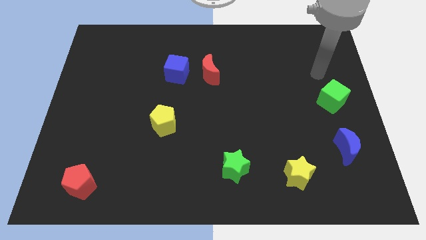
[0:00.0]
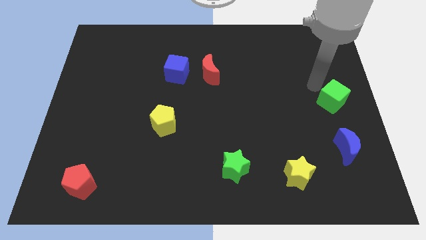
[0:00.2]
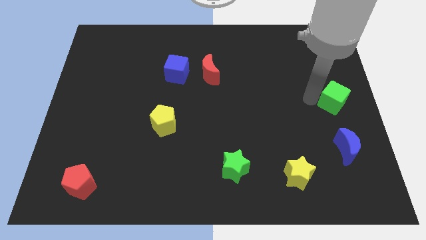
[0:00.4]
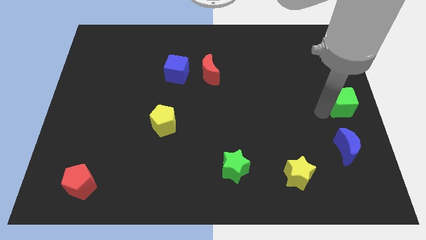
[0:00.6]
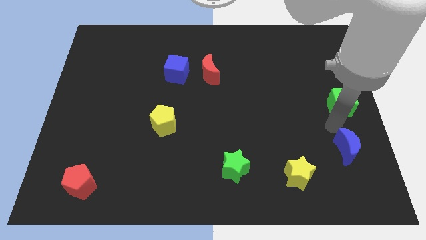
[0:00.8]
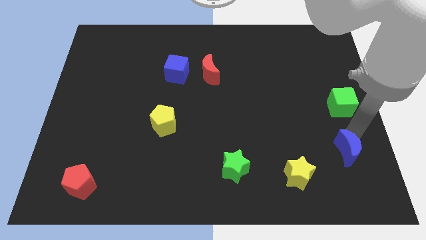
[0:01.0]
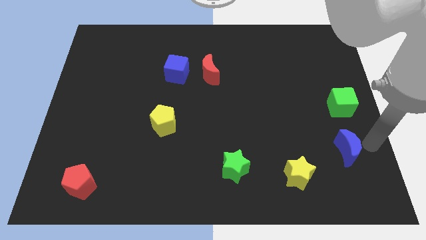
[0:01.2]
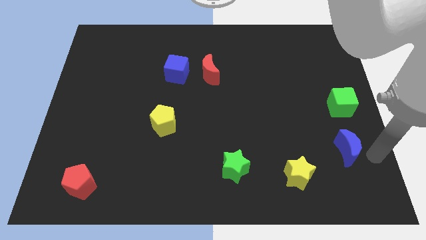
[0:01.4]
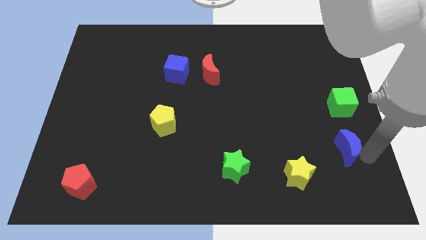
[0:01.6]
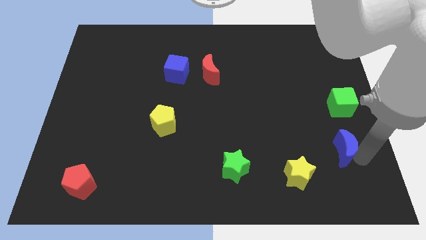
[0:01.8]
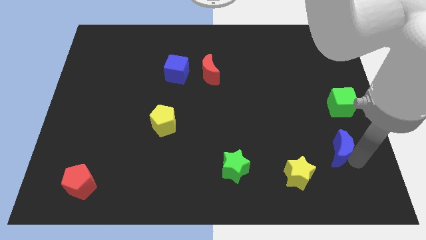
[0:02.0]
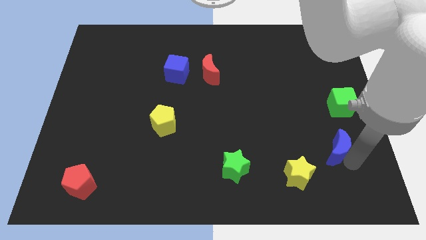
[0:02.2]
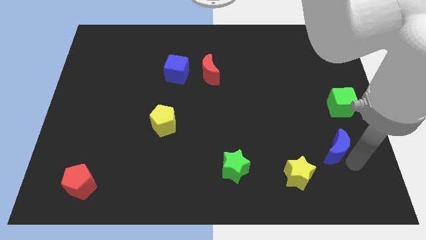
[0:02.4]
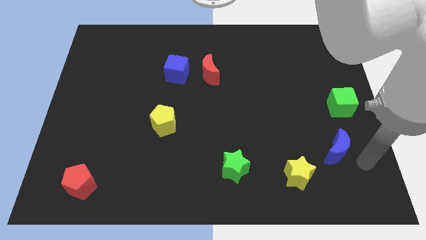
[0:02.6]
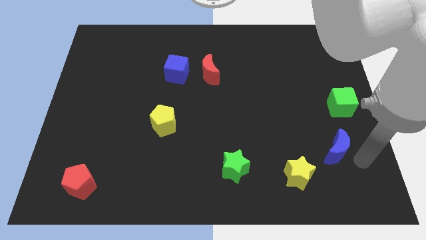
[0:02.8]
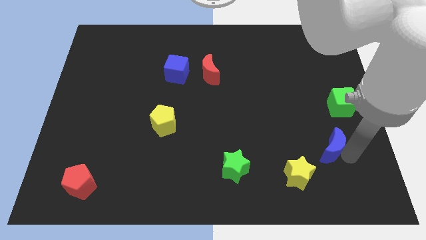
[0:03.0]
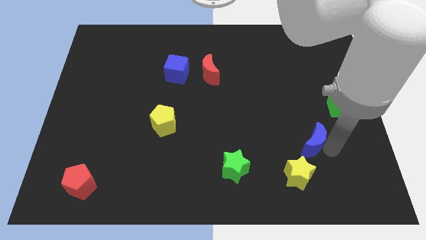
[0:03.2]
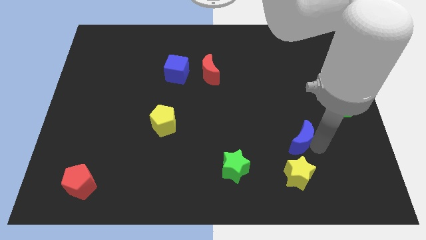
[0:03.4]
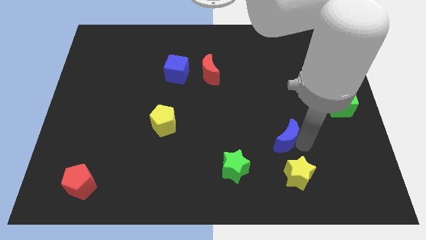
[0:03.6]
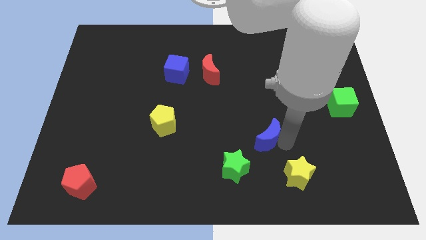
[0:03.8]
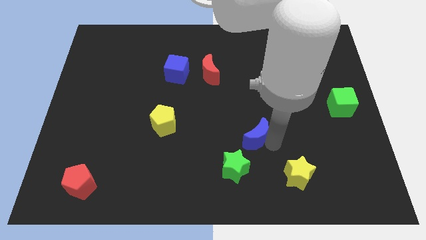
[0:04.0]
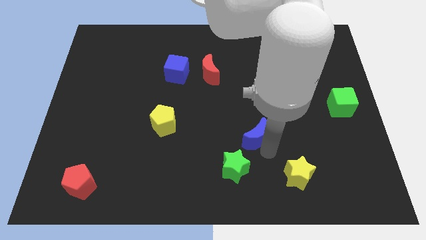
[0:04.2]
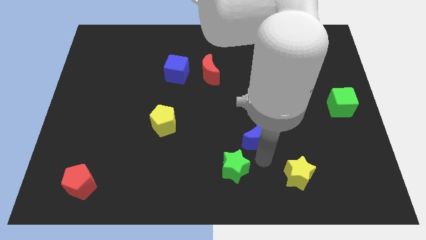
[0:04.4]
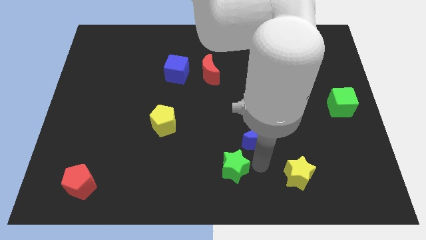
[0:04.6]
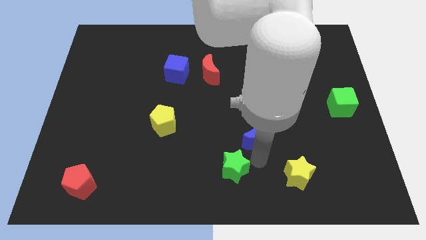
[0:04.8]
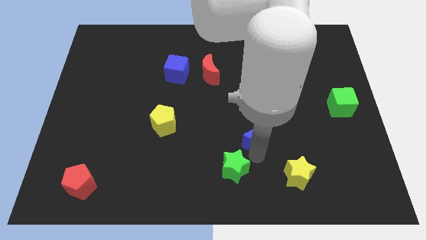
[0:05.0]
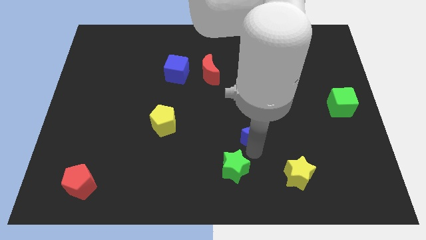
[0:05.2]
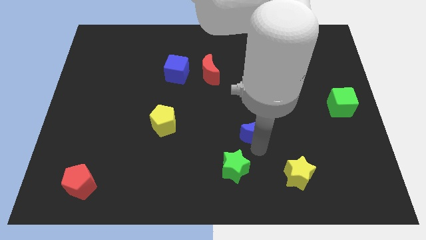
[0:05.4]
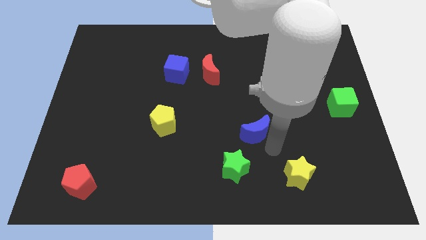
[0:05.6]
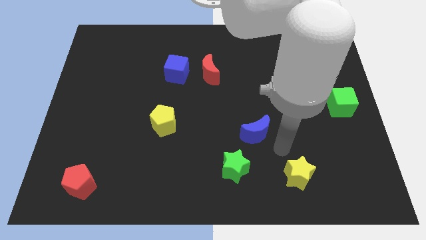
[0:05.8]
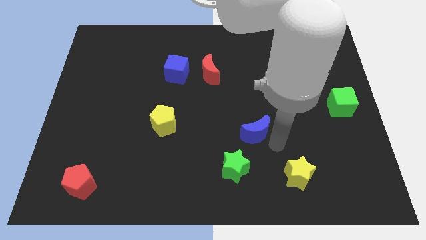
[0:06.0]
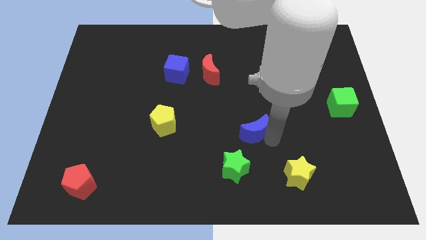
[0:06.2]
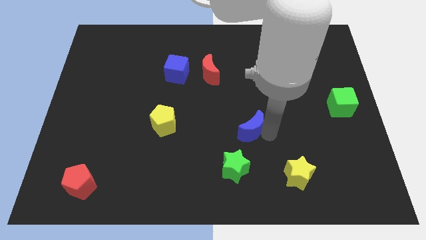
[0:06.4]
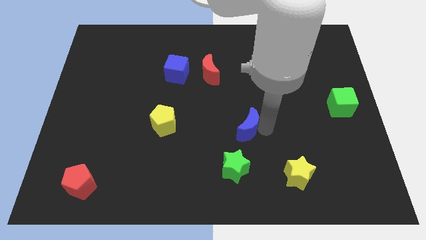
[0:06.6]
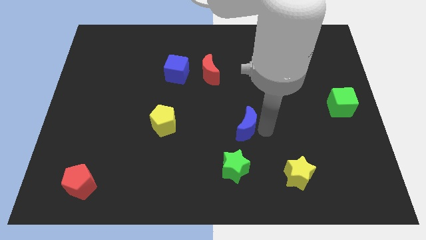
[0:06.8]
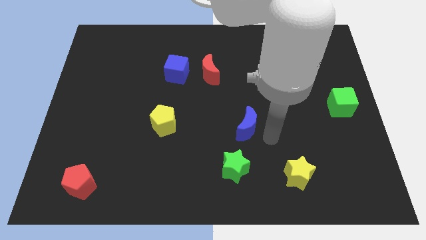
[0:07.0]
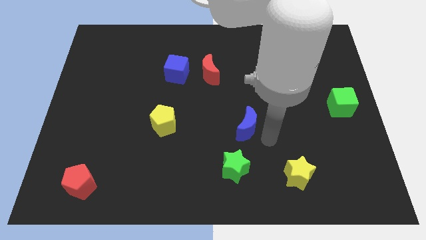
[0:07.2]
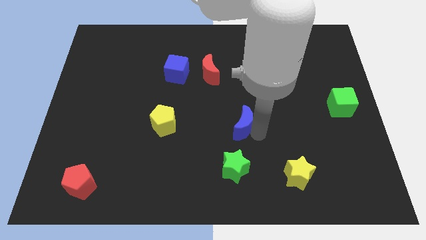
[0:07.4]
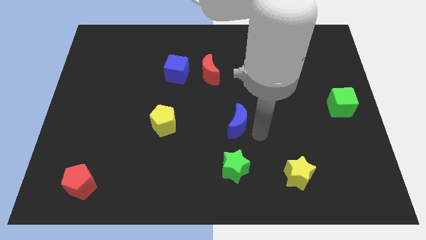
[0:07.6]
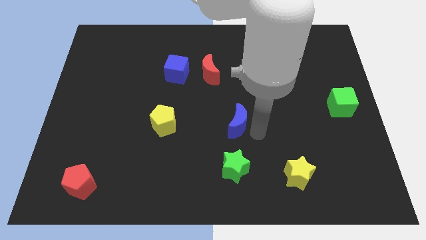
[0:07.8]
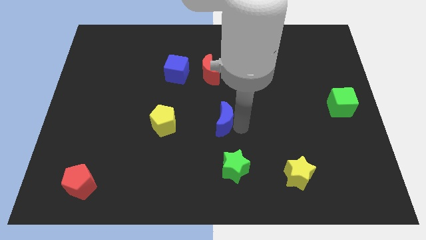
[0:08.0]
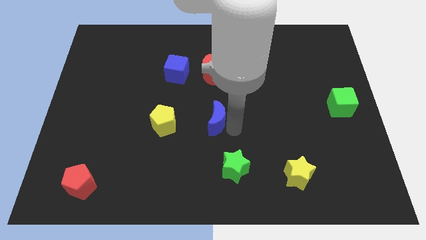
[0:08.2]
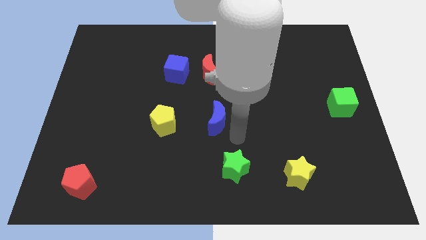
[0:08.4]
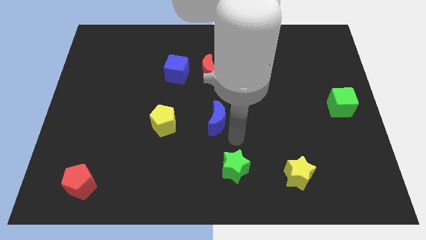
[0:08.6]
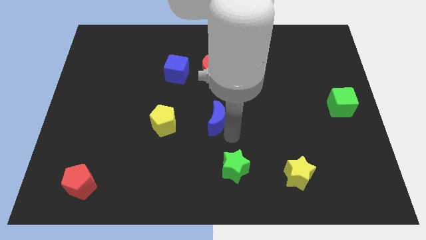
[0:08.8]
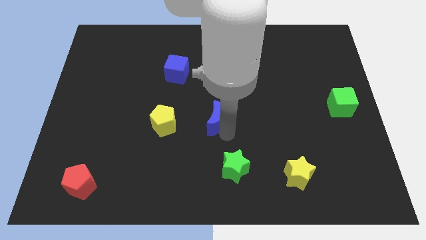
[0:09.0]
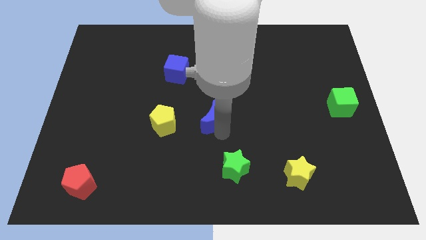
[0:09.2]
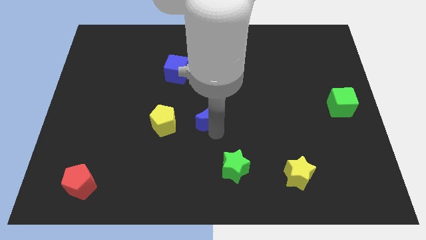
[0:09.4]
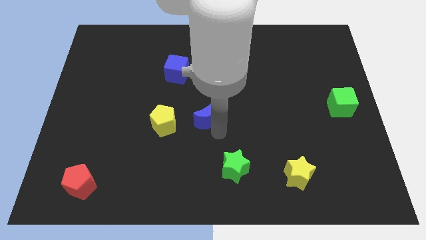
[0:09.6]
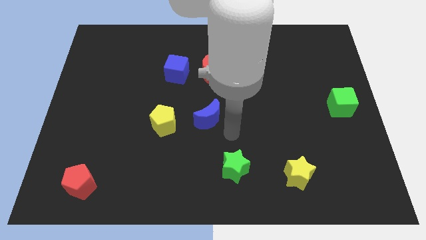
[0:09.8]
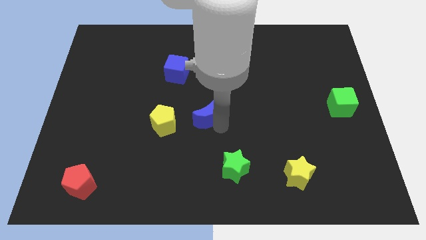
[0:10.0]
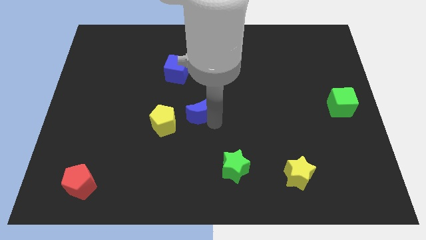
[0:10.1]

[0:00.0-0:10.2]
push the blue moon to the top right of the yellow pentagon

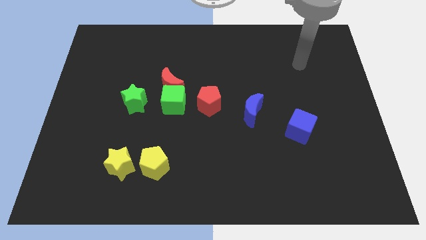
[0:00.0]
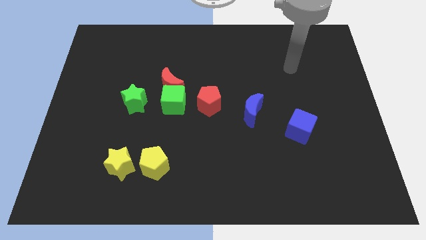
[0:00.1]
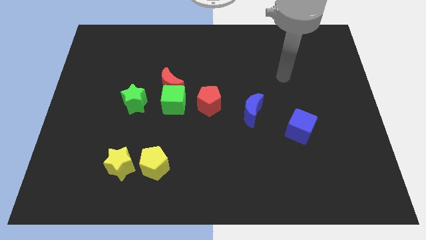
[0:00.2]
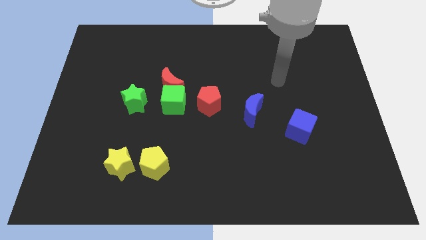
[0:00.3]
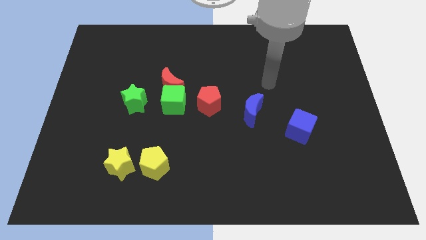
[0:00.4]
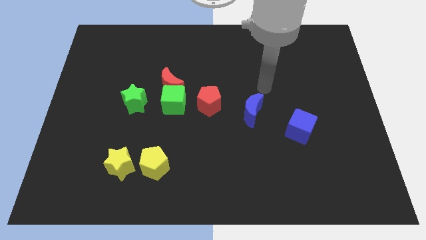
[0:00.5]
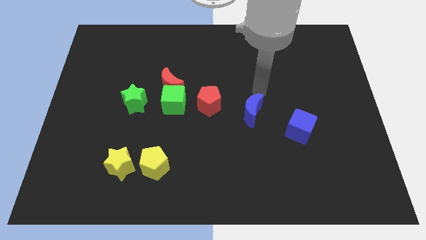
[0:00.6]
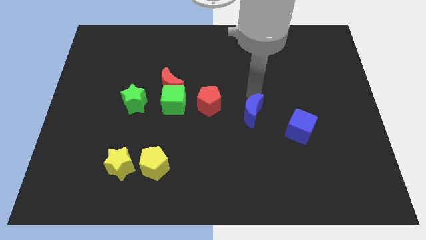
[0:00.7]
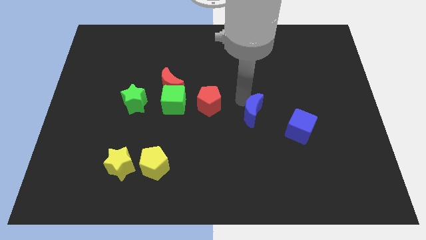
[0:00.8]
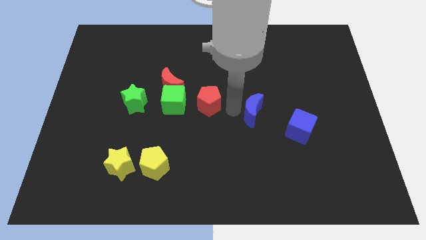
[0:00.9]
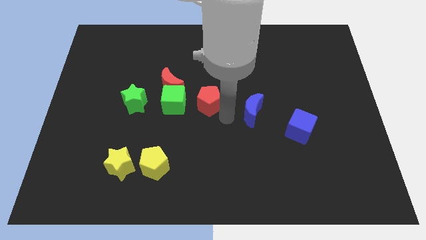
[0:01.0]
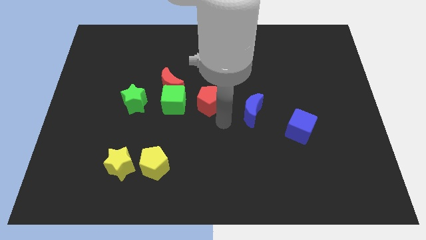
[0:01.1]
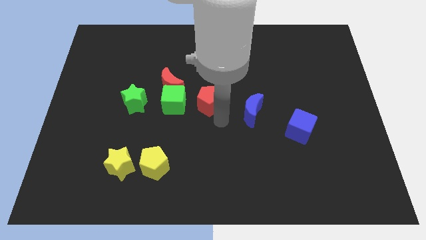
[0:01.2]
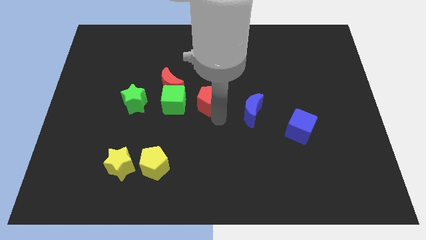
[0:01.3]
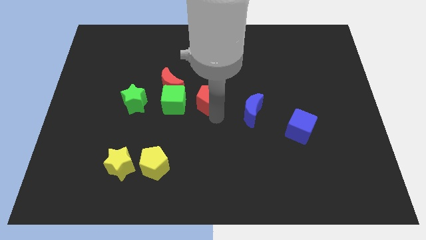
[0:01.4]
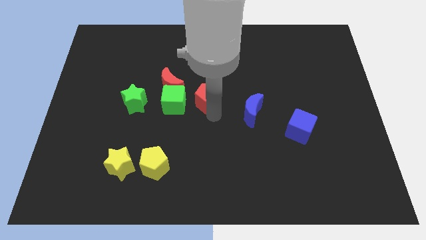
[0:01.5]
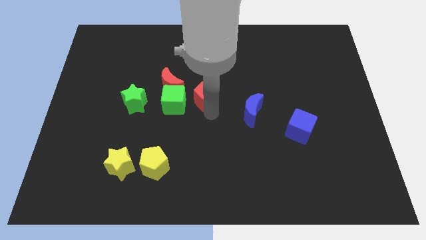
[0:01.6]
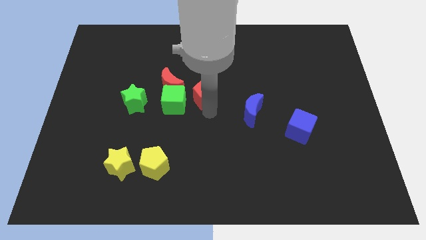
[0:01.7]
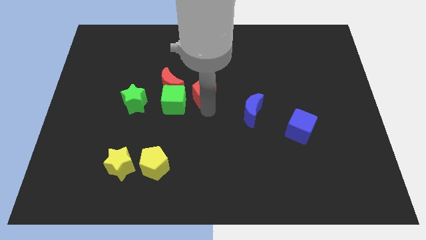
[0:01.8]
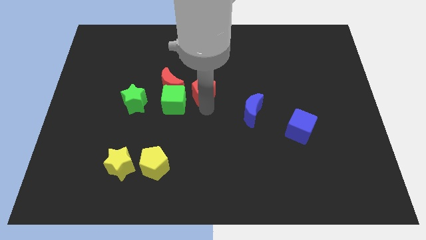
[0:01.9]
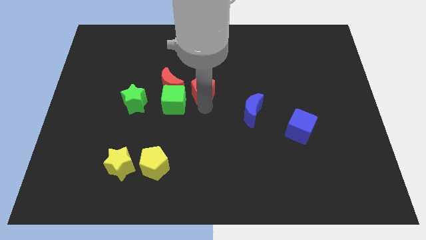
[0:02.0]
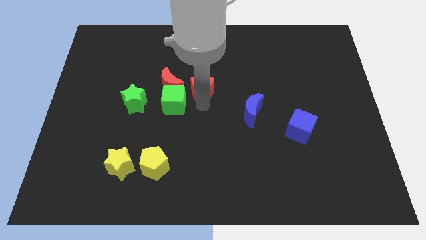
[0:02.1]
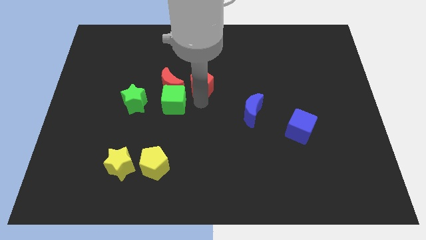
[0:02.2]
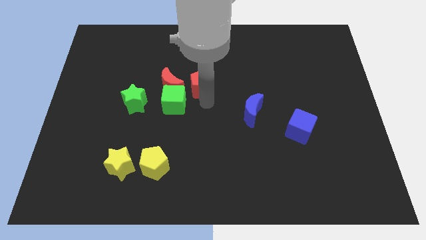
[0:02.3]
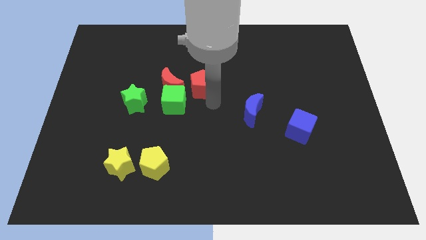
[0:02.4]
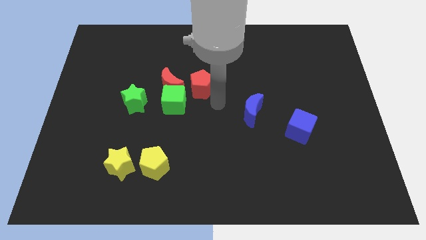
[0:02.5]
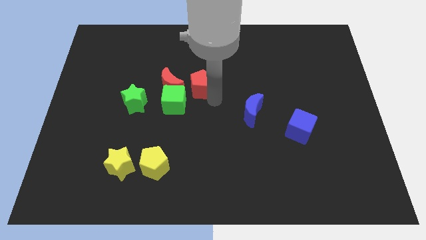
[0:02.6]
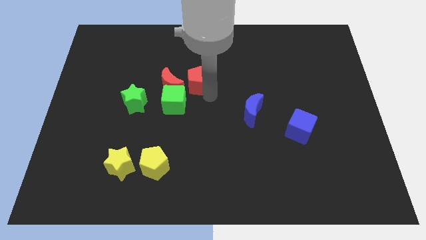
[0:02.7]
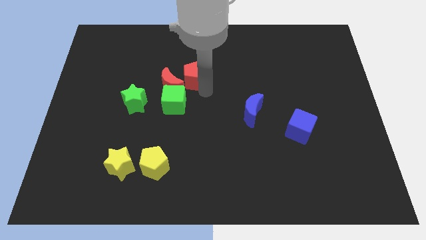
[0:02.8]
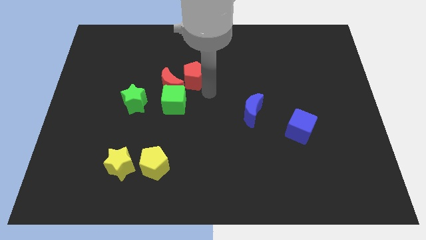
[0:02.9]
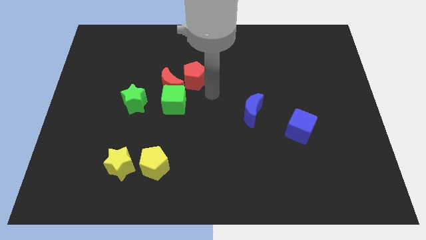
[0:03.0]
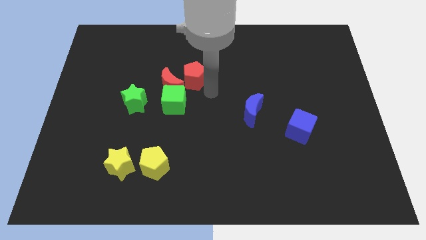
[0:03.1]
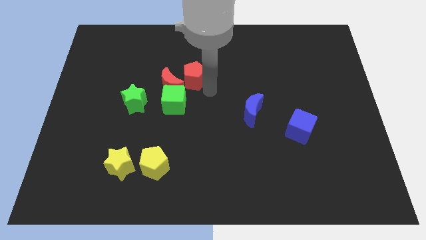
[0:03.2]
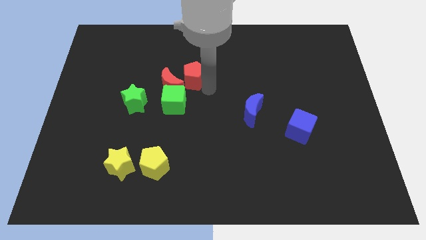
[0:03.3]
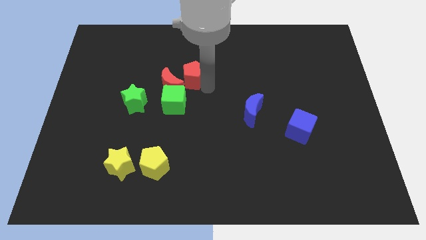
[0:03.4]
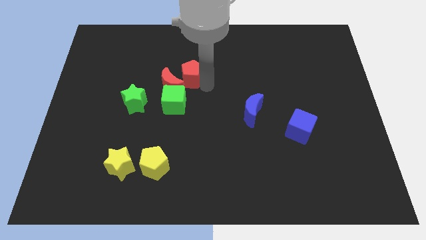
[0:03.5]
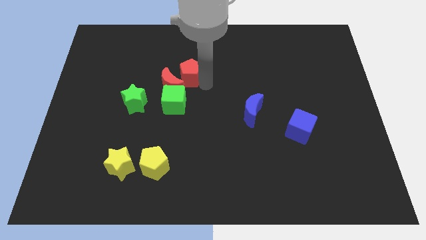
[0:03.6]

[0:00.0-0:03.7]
slide the red pentagon to the top of the red moon
